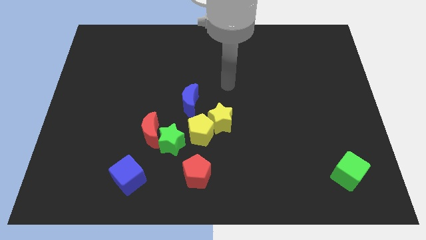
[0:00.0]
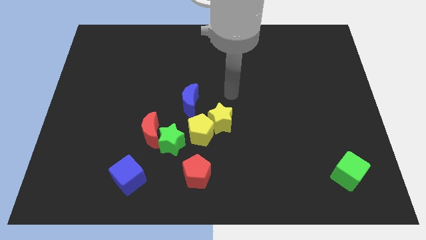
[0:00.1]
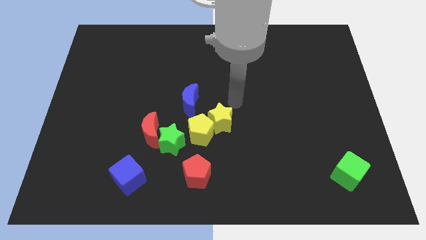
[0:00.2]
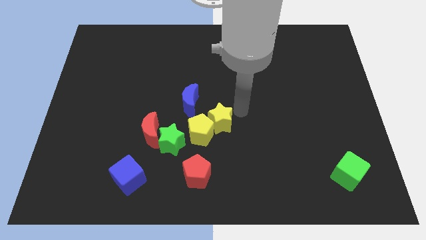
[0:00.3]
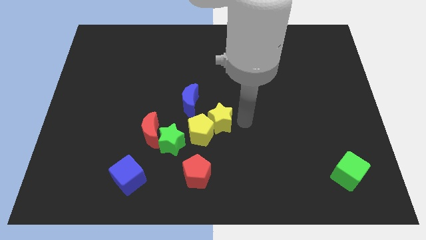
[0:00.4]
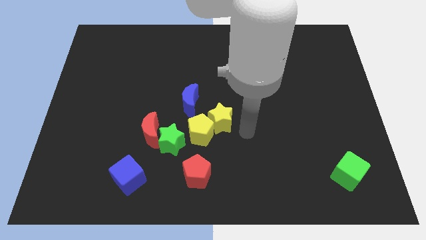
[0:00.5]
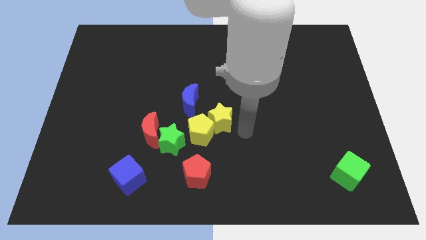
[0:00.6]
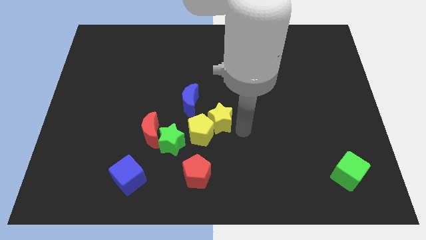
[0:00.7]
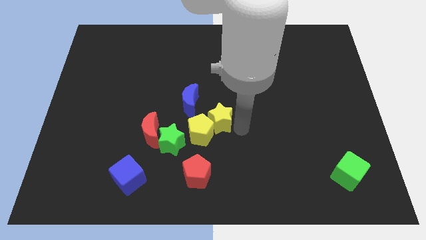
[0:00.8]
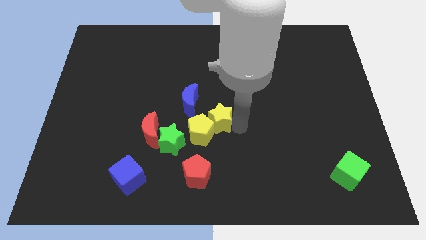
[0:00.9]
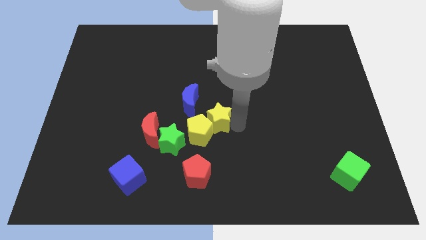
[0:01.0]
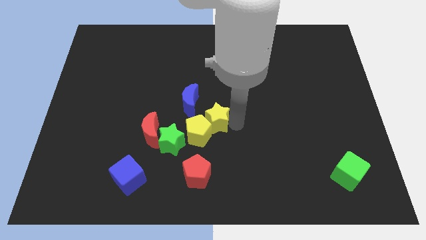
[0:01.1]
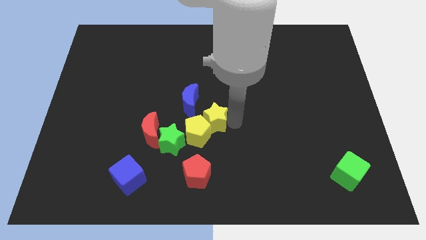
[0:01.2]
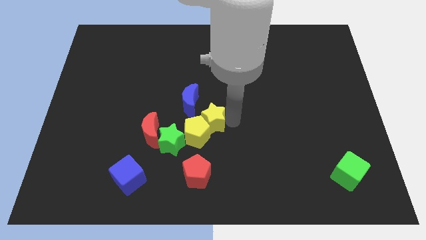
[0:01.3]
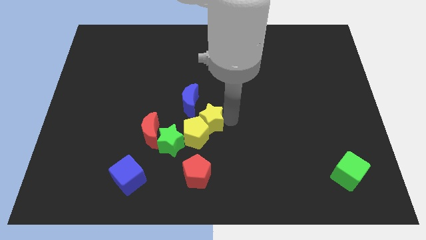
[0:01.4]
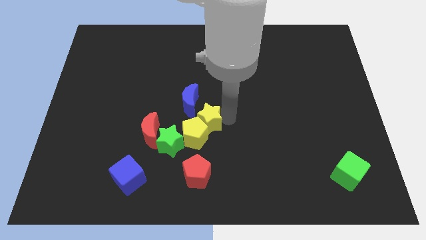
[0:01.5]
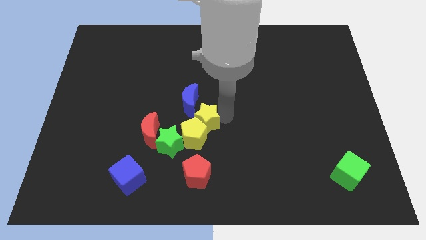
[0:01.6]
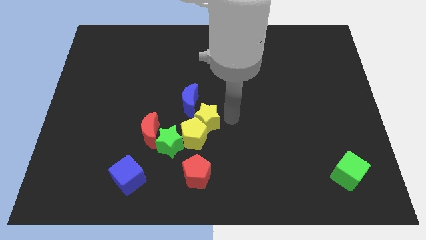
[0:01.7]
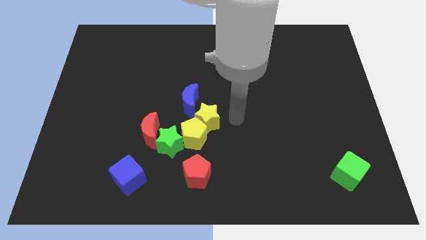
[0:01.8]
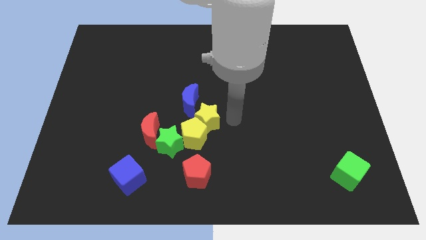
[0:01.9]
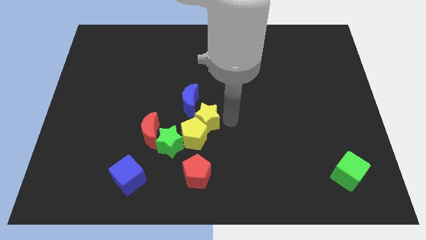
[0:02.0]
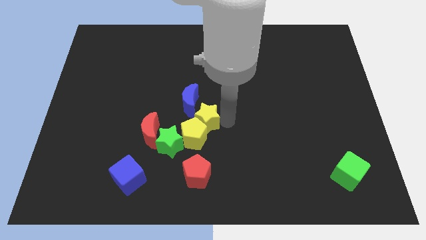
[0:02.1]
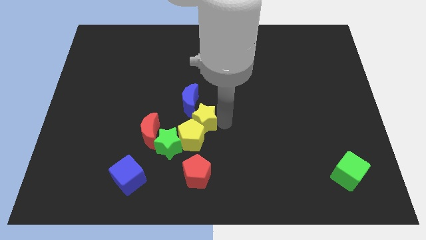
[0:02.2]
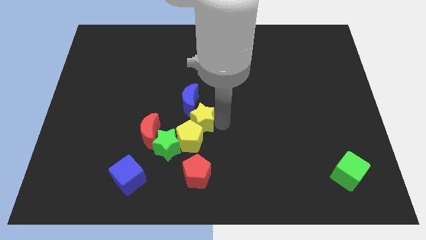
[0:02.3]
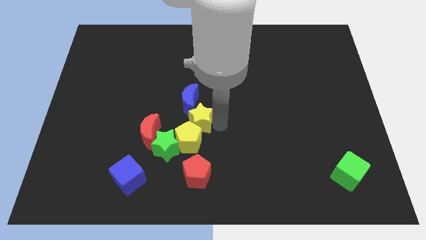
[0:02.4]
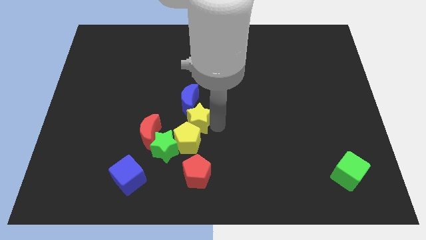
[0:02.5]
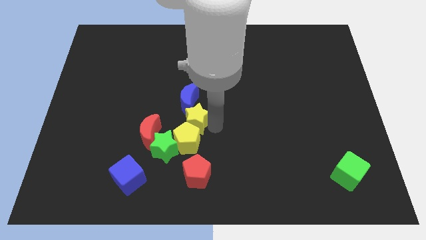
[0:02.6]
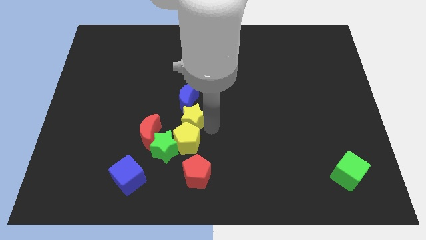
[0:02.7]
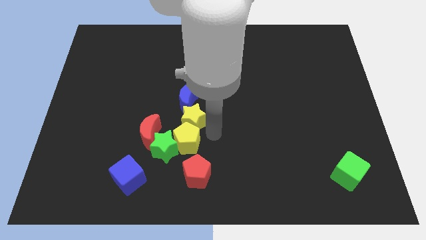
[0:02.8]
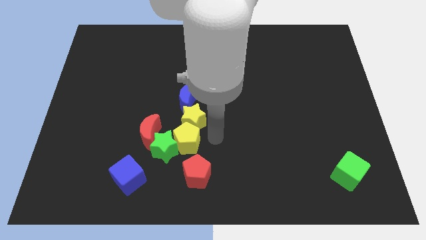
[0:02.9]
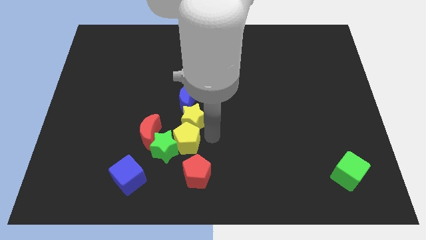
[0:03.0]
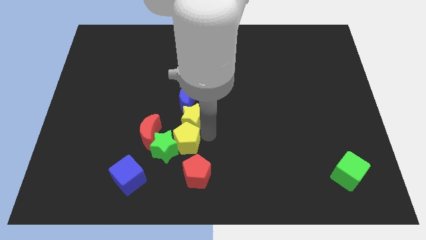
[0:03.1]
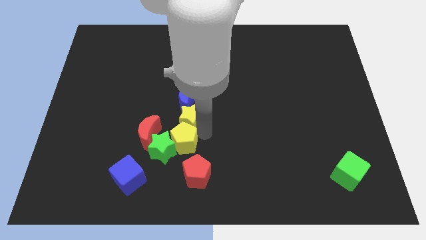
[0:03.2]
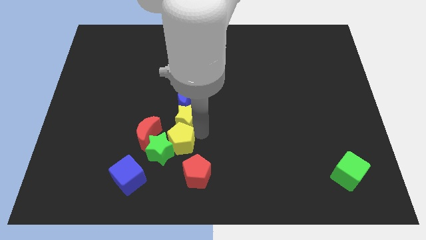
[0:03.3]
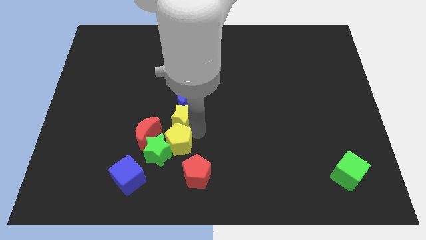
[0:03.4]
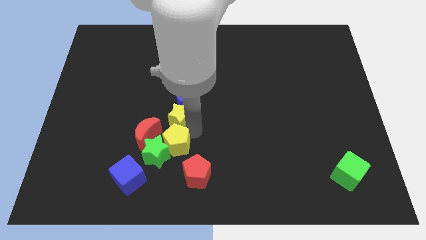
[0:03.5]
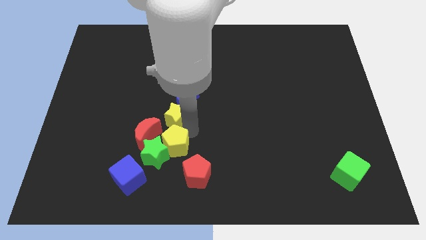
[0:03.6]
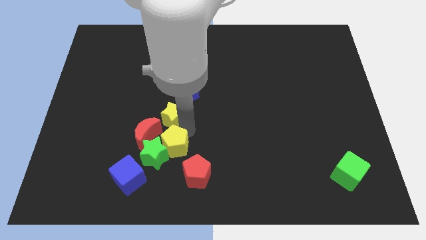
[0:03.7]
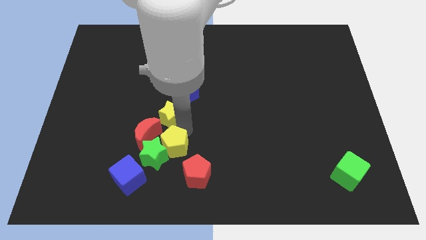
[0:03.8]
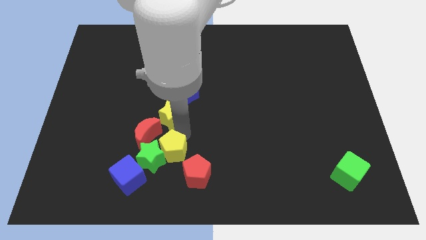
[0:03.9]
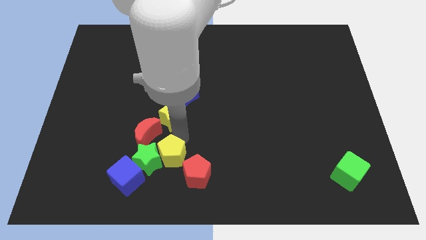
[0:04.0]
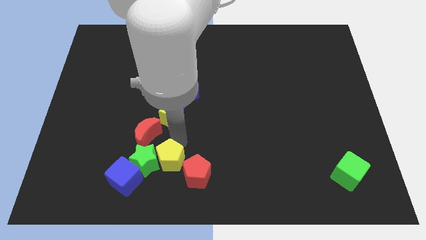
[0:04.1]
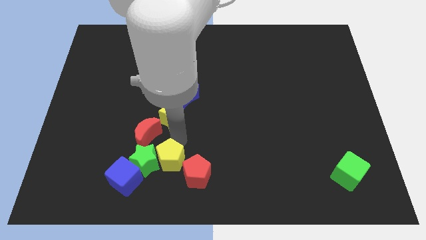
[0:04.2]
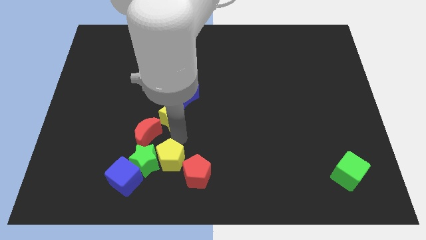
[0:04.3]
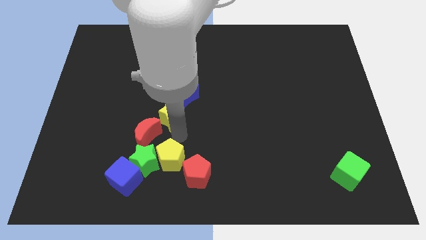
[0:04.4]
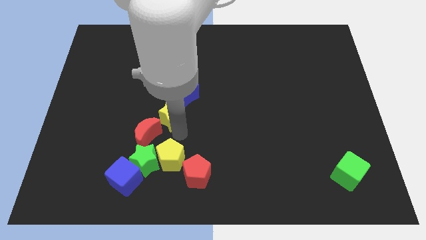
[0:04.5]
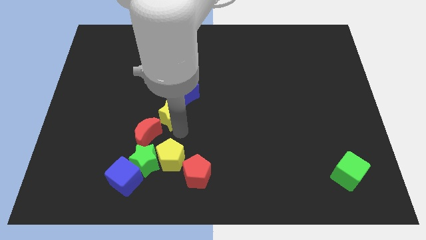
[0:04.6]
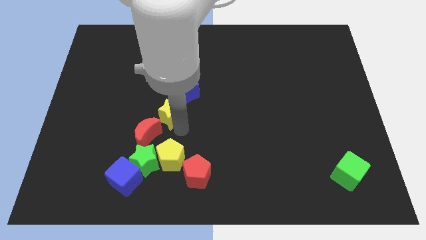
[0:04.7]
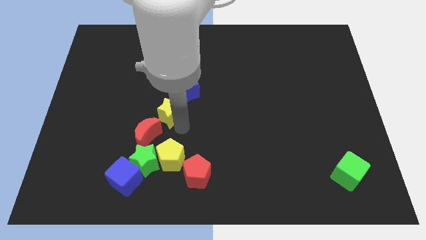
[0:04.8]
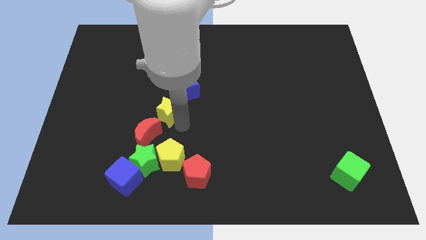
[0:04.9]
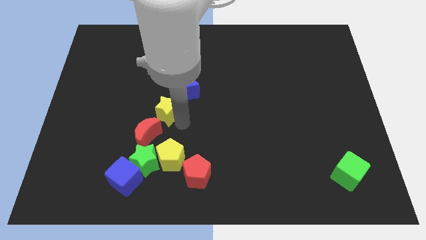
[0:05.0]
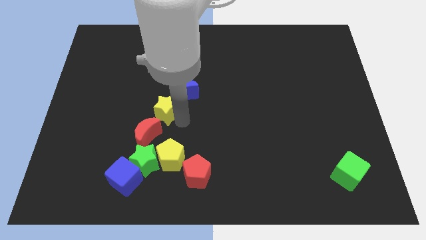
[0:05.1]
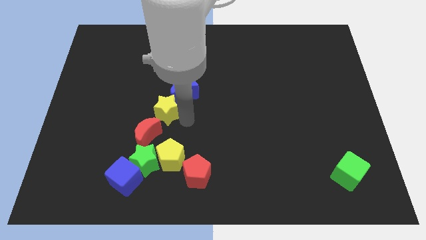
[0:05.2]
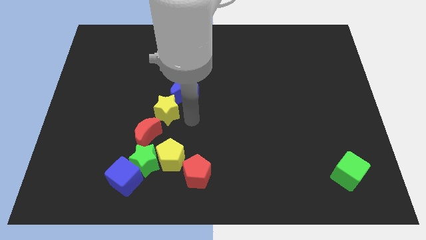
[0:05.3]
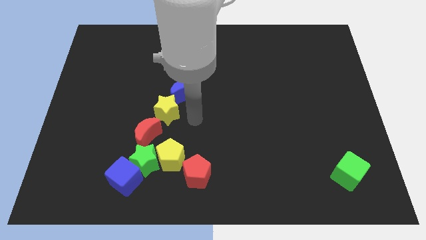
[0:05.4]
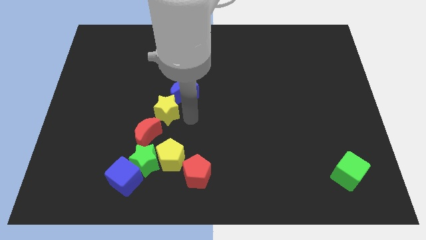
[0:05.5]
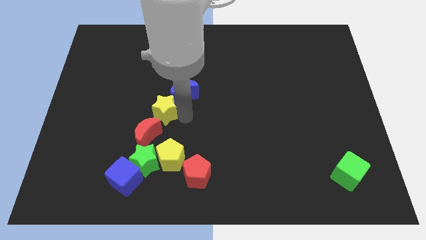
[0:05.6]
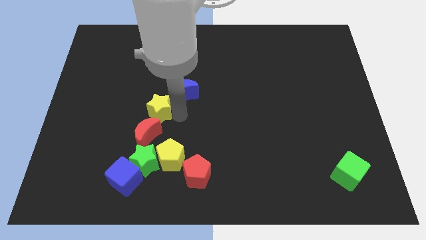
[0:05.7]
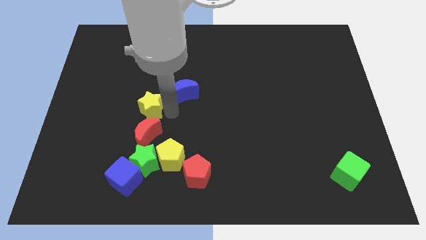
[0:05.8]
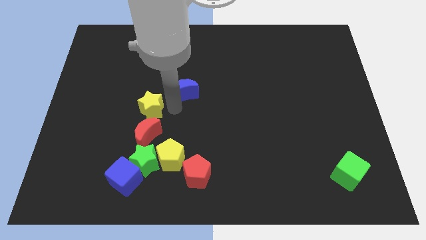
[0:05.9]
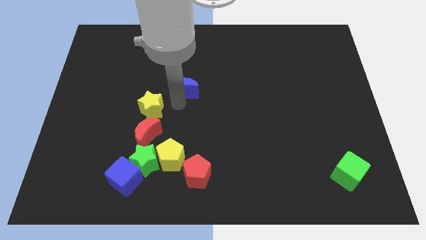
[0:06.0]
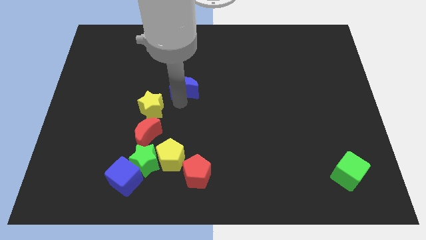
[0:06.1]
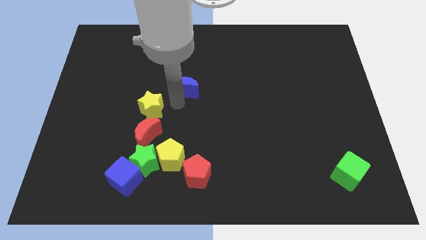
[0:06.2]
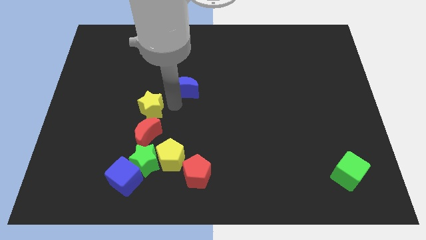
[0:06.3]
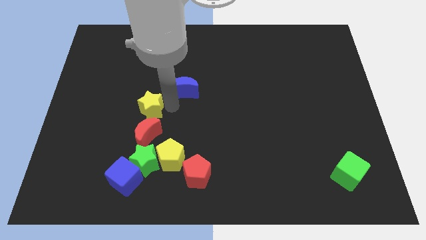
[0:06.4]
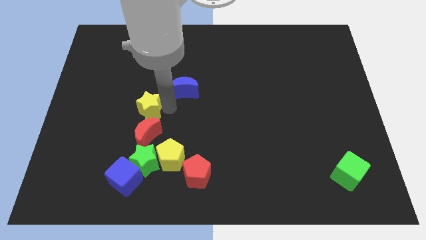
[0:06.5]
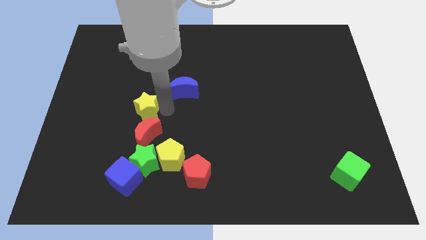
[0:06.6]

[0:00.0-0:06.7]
push the yellow star diagonally up and to the left of the red moon
